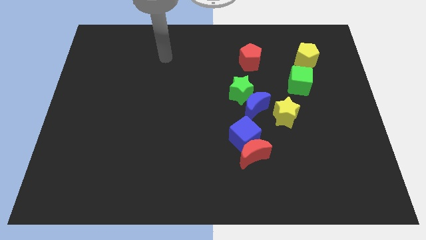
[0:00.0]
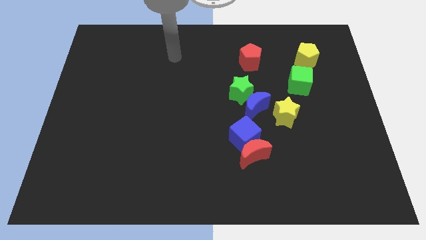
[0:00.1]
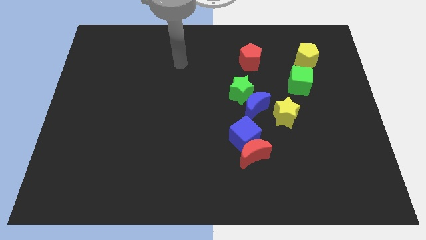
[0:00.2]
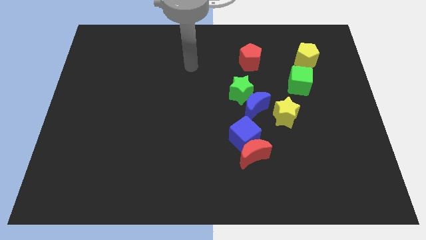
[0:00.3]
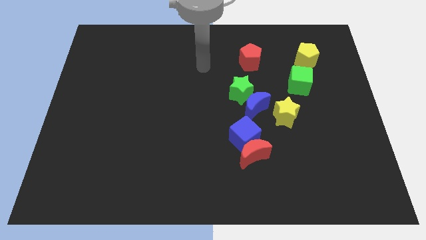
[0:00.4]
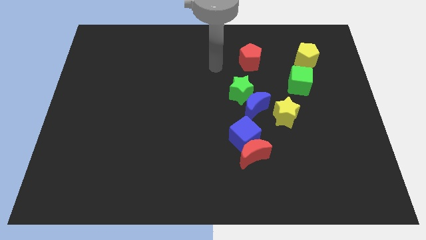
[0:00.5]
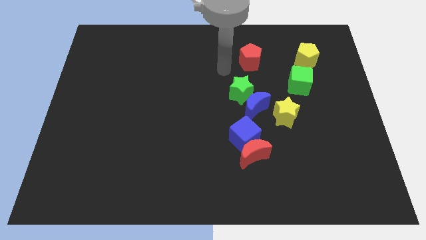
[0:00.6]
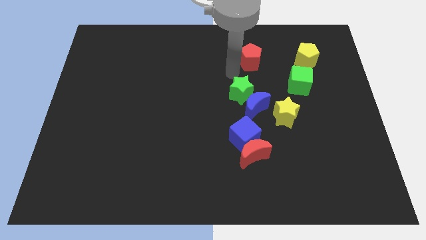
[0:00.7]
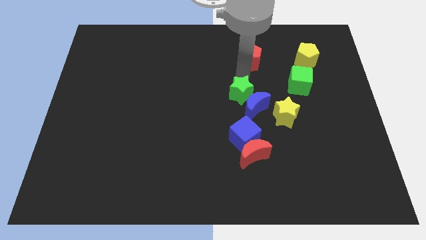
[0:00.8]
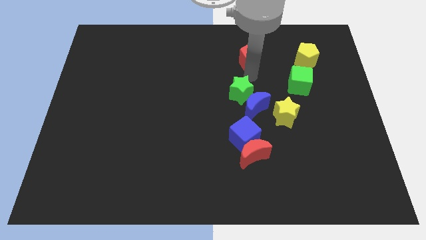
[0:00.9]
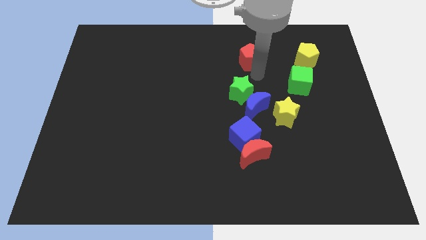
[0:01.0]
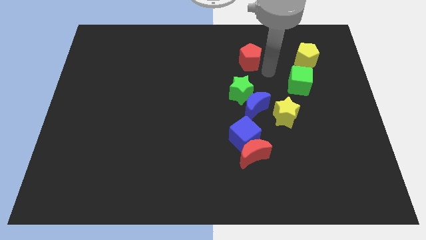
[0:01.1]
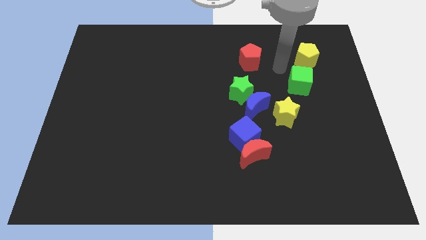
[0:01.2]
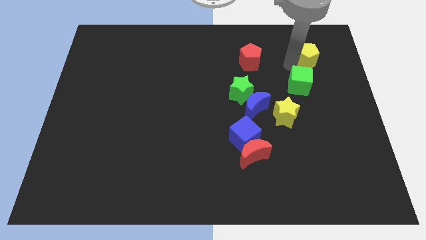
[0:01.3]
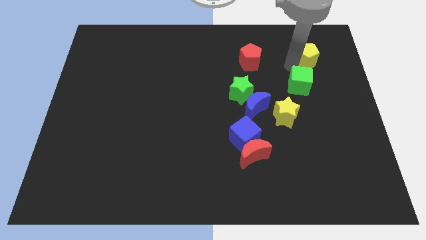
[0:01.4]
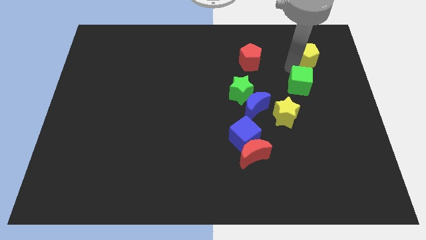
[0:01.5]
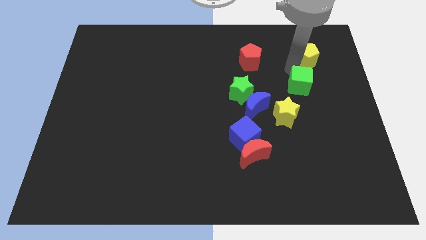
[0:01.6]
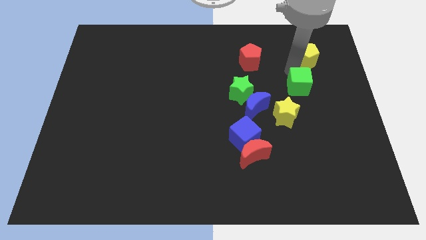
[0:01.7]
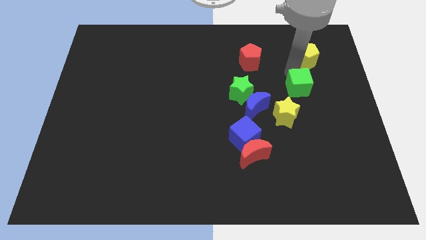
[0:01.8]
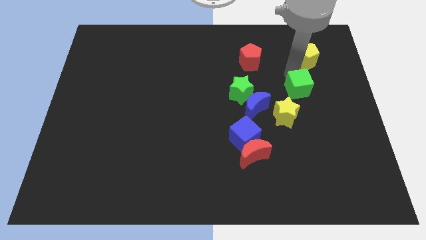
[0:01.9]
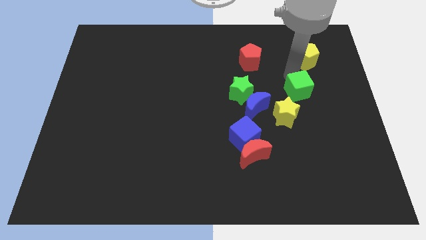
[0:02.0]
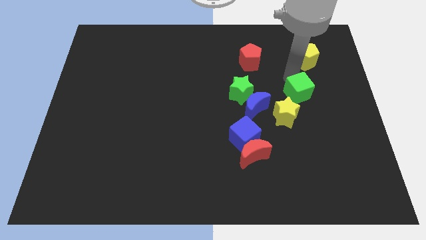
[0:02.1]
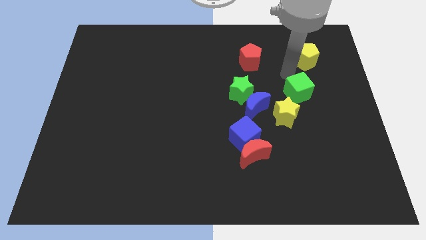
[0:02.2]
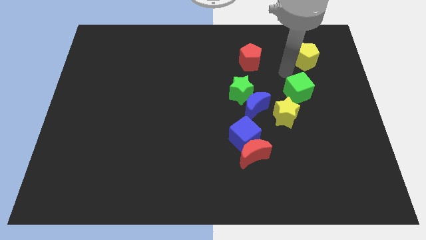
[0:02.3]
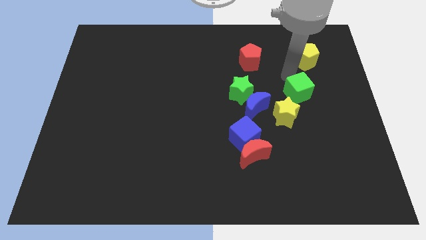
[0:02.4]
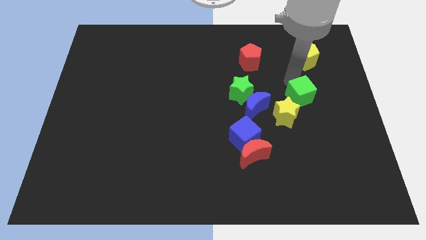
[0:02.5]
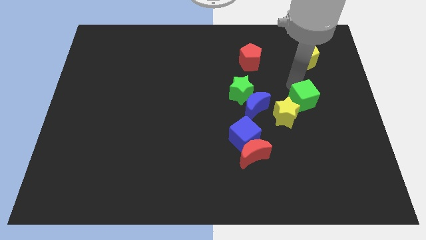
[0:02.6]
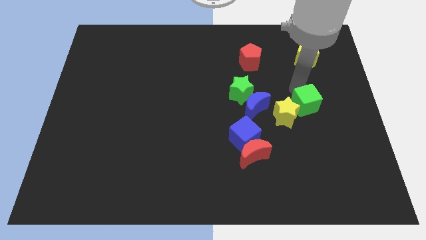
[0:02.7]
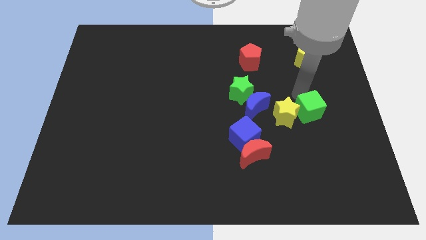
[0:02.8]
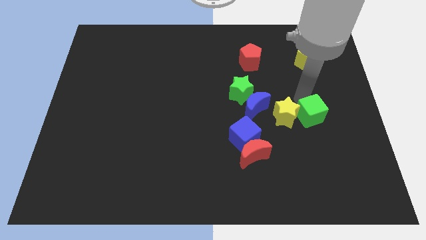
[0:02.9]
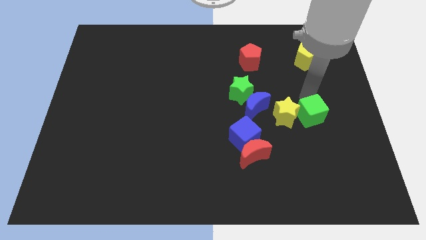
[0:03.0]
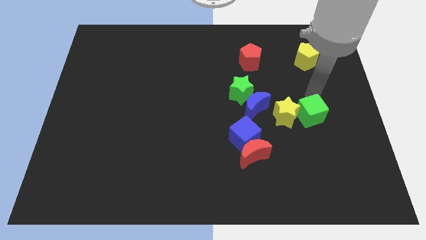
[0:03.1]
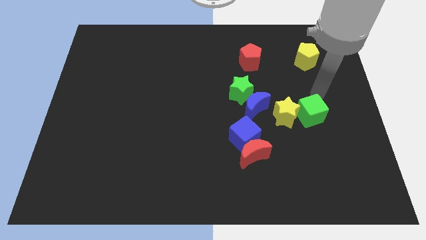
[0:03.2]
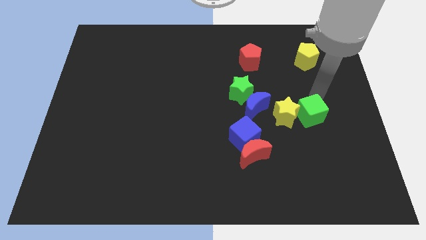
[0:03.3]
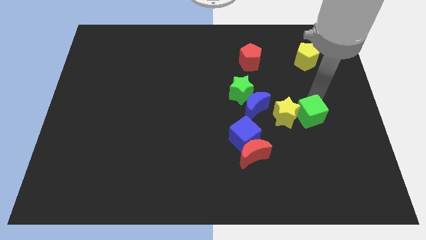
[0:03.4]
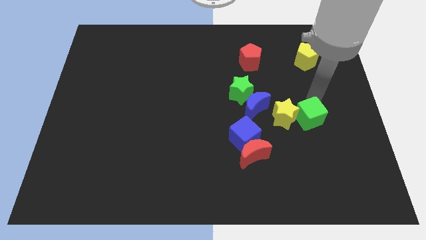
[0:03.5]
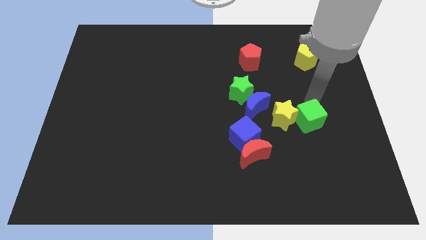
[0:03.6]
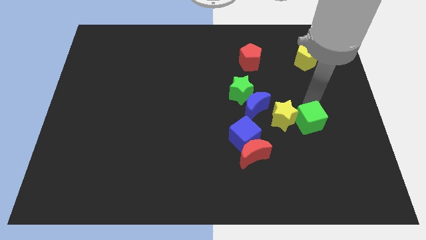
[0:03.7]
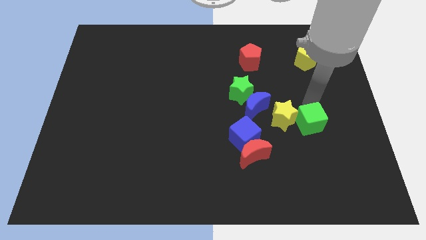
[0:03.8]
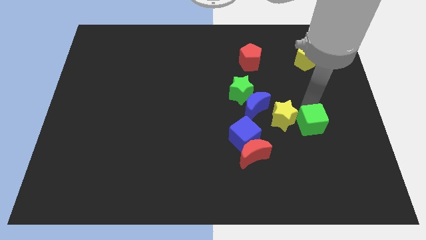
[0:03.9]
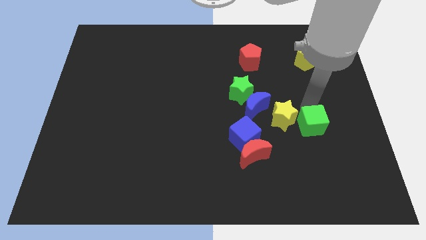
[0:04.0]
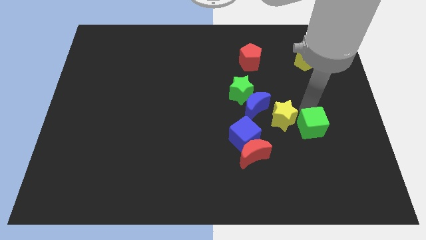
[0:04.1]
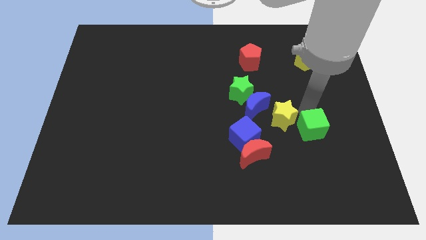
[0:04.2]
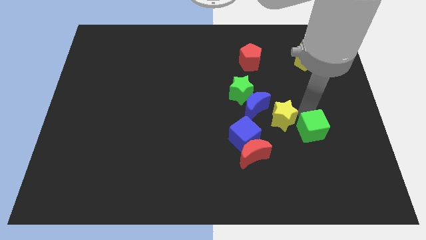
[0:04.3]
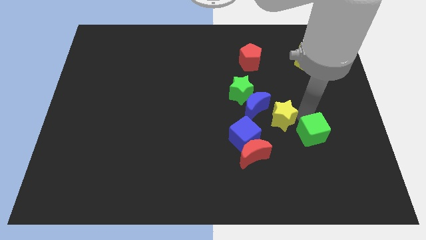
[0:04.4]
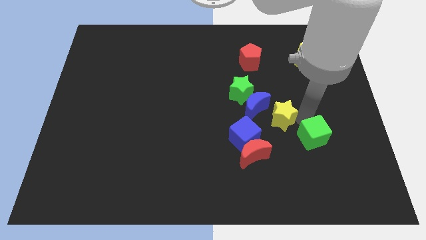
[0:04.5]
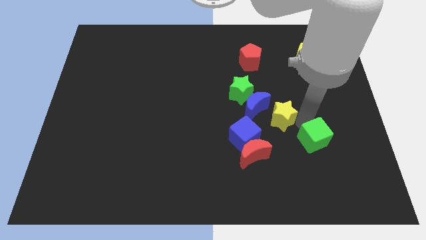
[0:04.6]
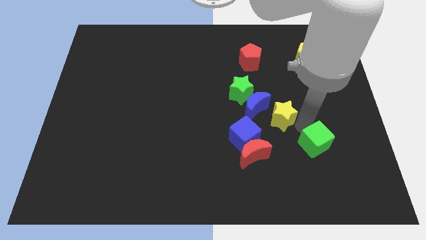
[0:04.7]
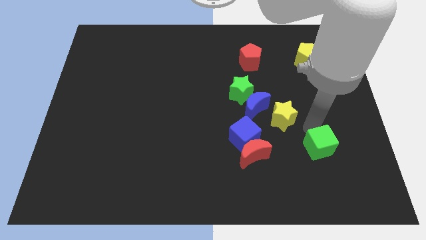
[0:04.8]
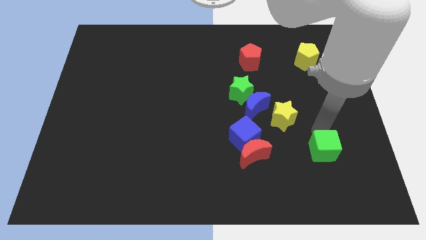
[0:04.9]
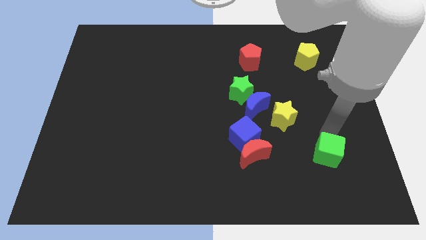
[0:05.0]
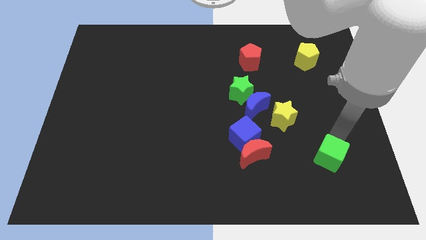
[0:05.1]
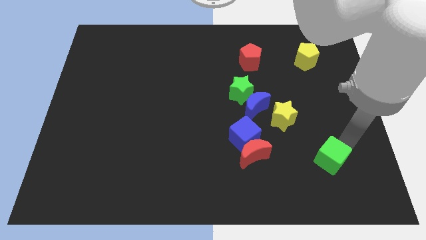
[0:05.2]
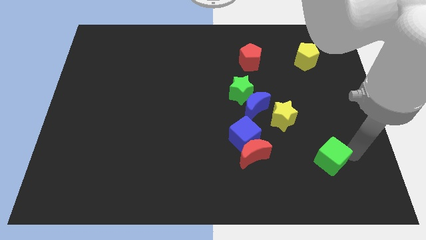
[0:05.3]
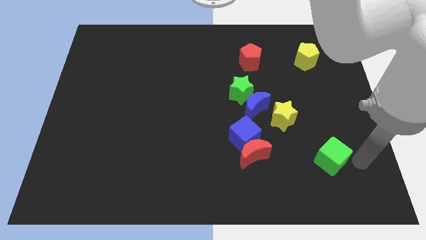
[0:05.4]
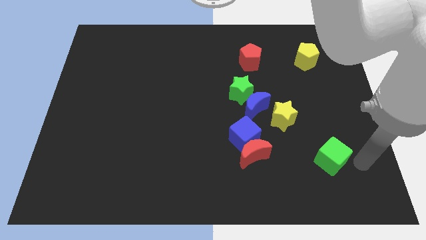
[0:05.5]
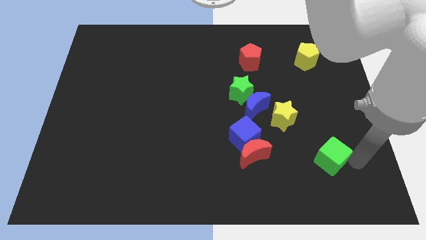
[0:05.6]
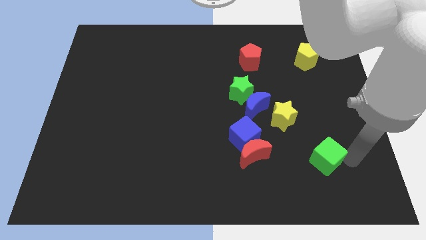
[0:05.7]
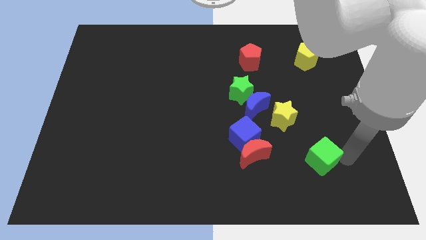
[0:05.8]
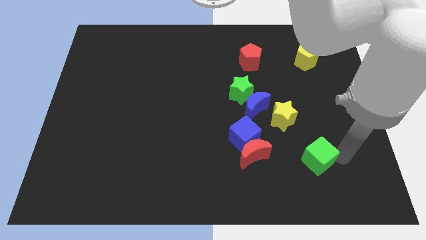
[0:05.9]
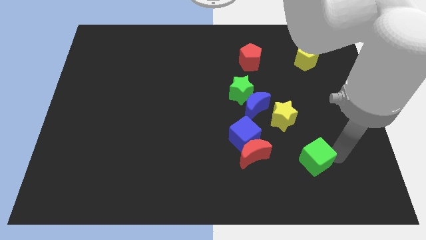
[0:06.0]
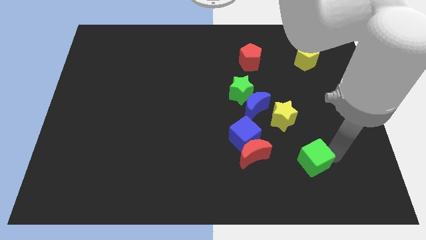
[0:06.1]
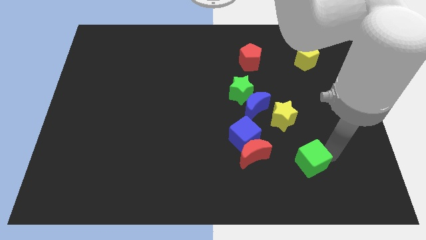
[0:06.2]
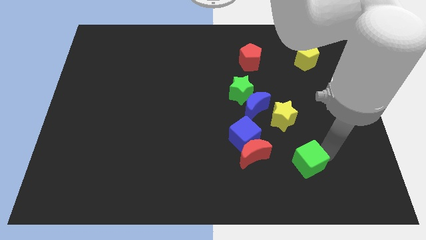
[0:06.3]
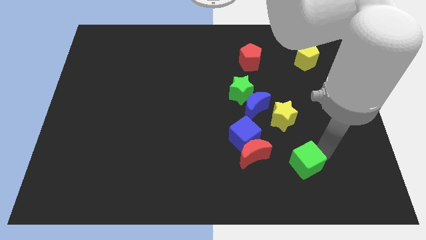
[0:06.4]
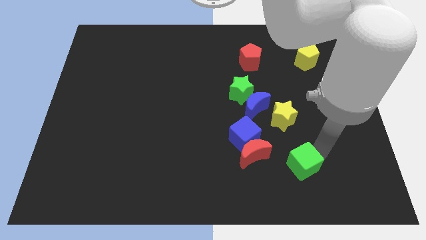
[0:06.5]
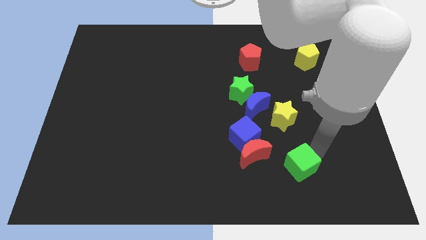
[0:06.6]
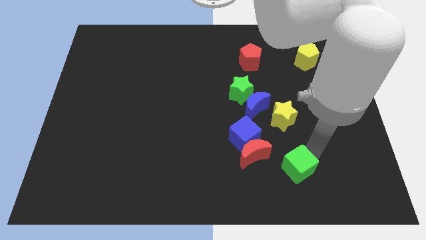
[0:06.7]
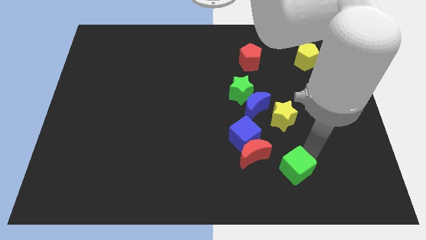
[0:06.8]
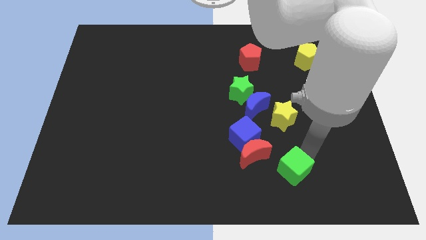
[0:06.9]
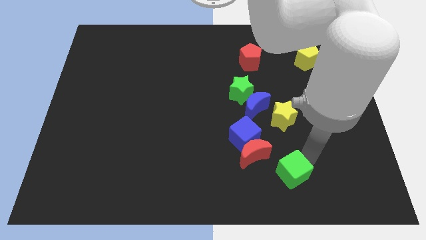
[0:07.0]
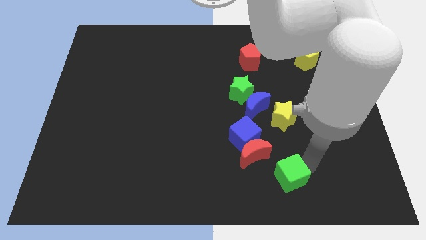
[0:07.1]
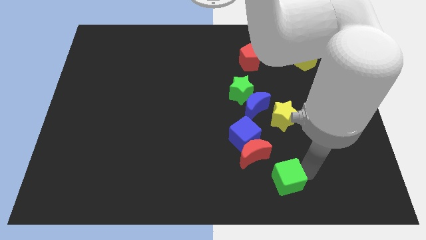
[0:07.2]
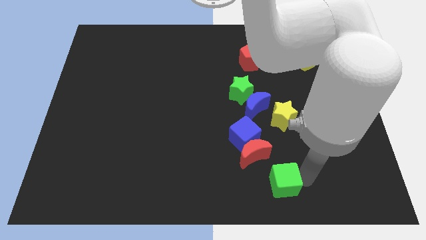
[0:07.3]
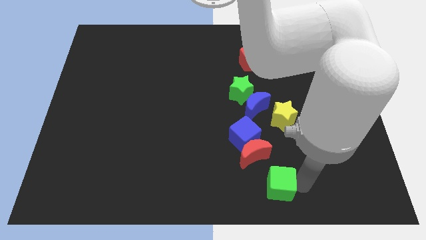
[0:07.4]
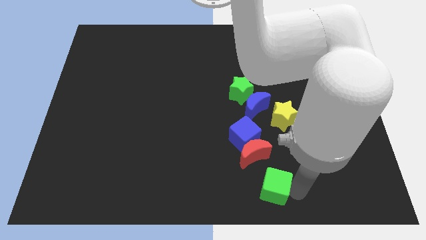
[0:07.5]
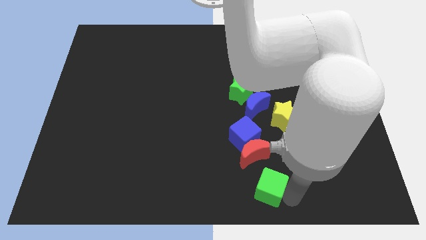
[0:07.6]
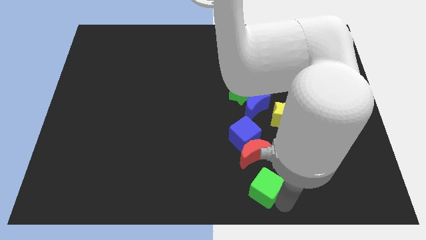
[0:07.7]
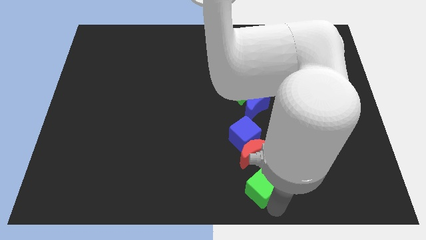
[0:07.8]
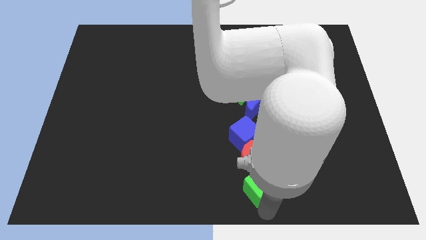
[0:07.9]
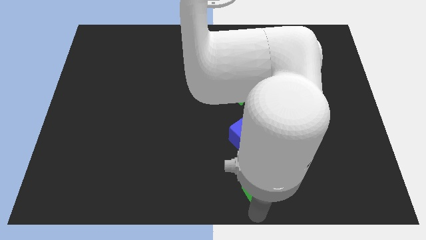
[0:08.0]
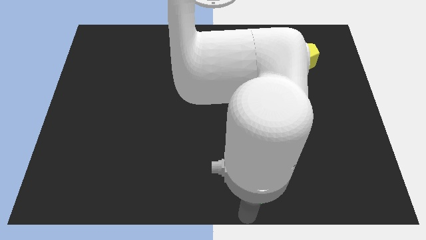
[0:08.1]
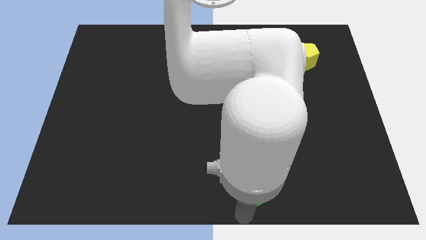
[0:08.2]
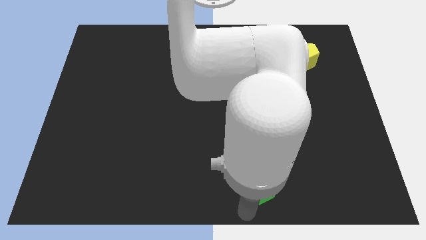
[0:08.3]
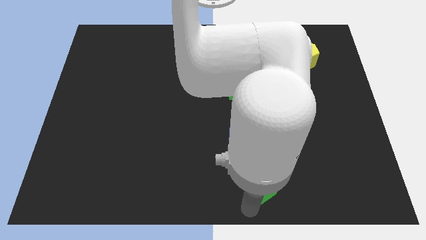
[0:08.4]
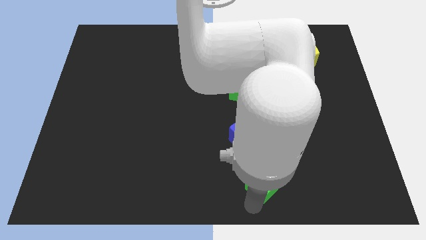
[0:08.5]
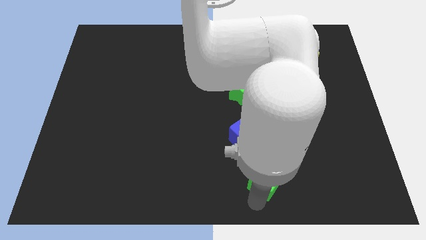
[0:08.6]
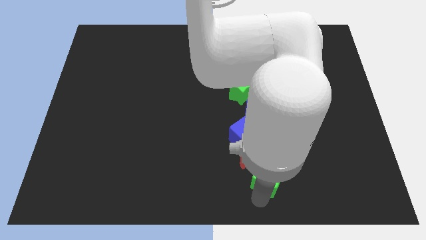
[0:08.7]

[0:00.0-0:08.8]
put the green cube next to the red moon
